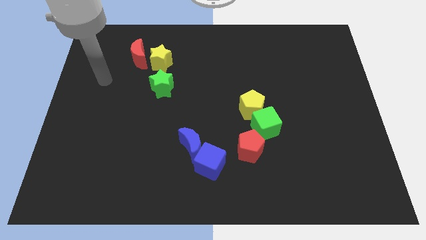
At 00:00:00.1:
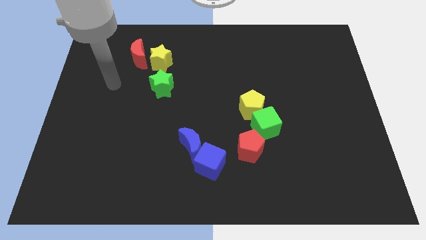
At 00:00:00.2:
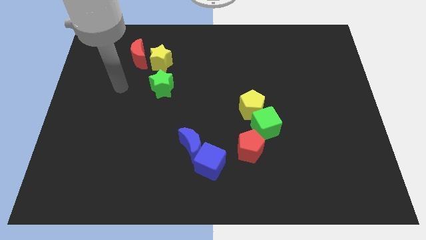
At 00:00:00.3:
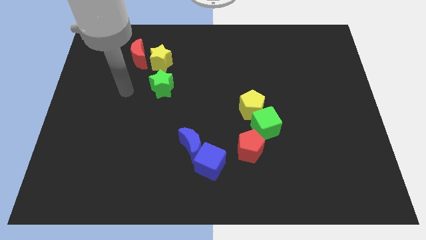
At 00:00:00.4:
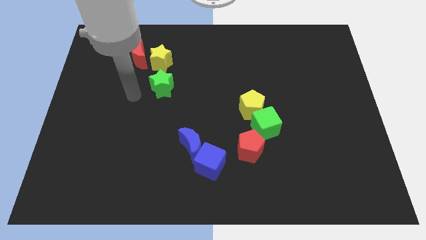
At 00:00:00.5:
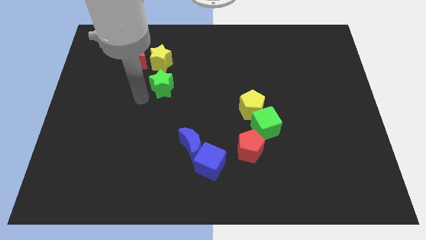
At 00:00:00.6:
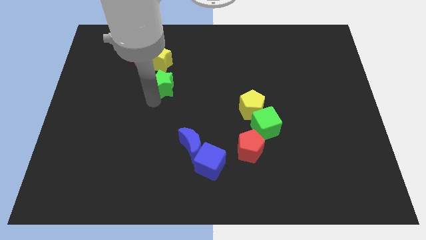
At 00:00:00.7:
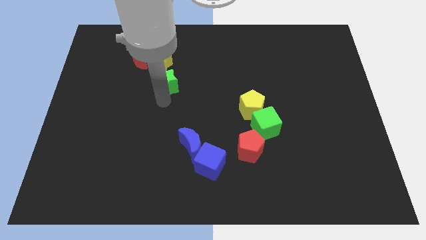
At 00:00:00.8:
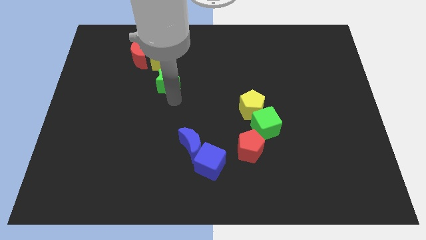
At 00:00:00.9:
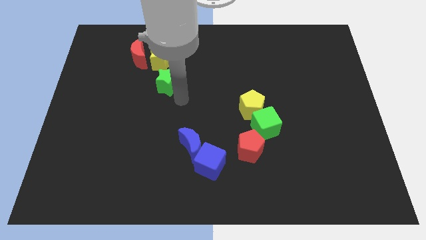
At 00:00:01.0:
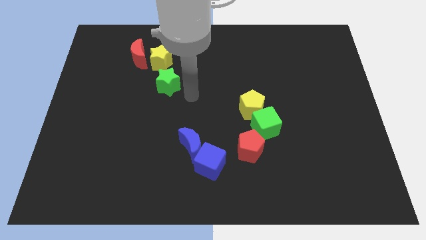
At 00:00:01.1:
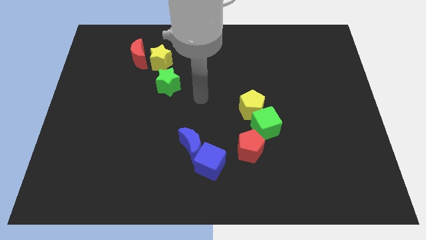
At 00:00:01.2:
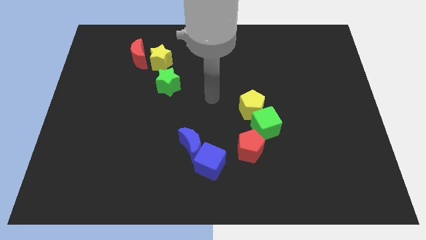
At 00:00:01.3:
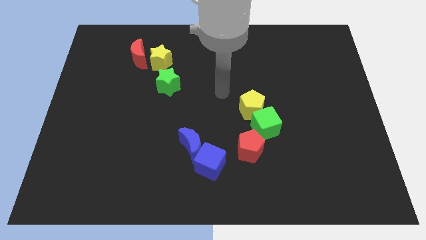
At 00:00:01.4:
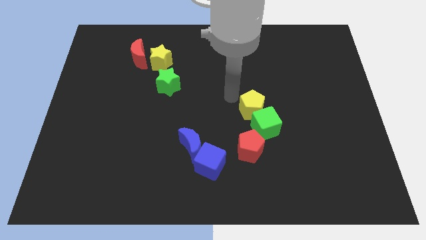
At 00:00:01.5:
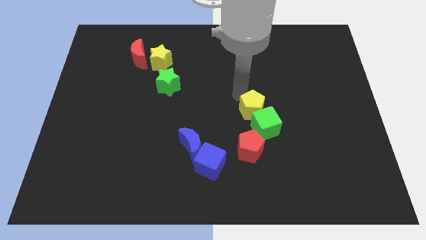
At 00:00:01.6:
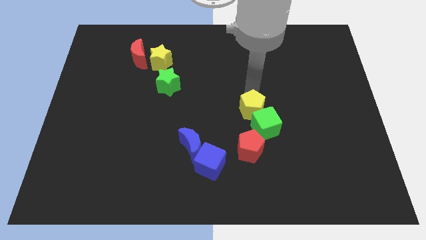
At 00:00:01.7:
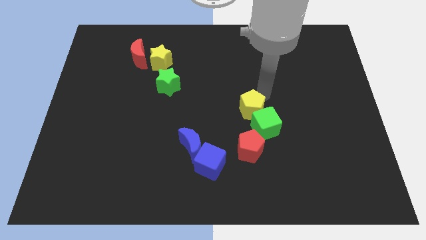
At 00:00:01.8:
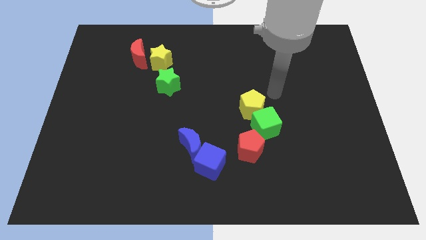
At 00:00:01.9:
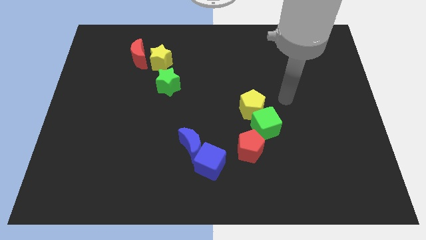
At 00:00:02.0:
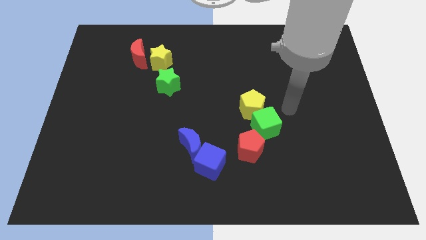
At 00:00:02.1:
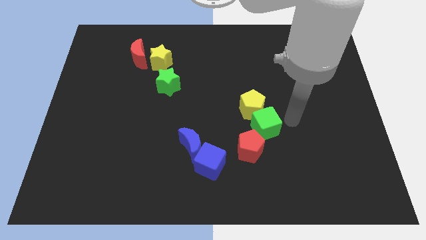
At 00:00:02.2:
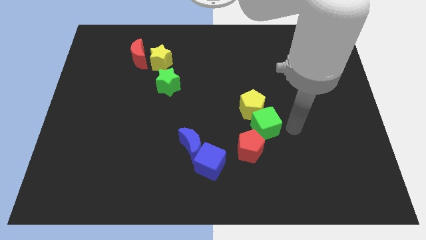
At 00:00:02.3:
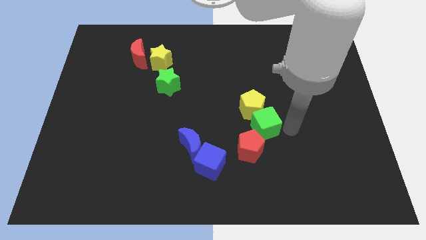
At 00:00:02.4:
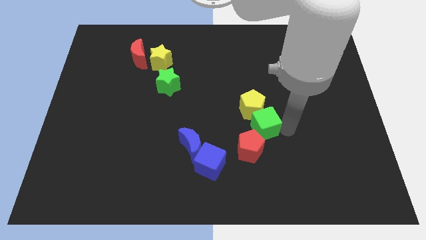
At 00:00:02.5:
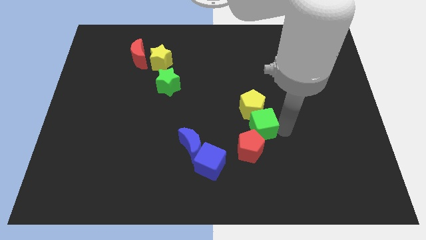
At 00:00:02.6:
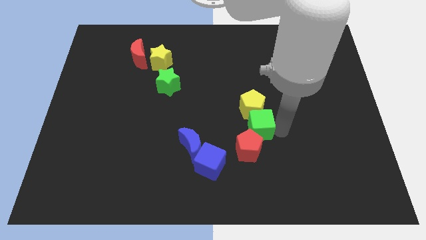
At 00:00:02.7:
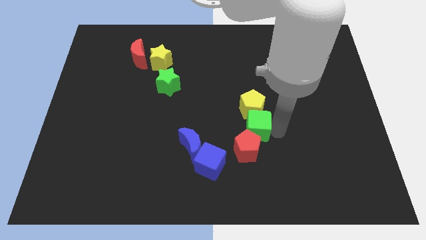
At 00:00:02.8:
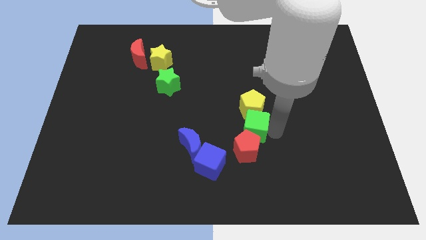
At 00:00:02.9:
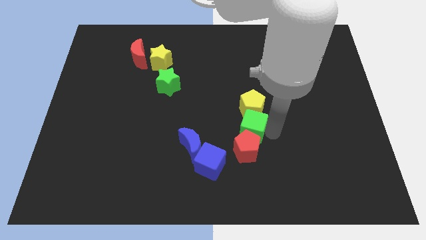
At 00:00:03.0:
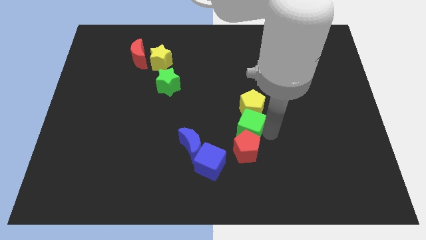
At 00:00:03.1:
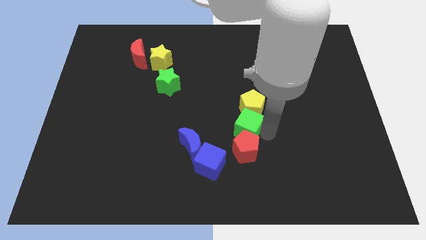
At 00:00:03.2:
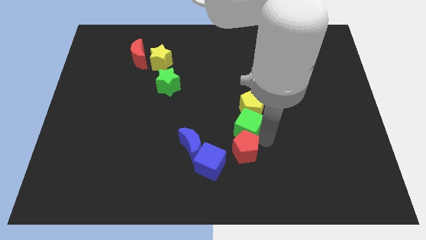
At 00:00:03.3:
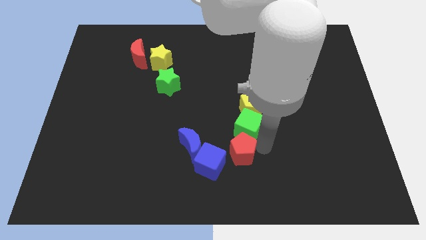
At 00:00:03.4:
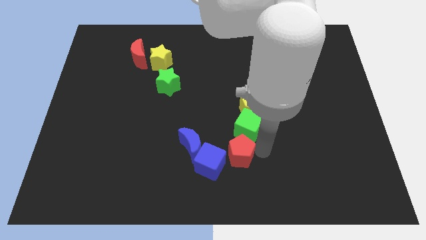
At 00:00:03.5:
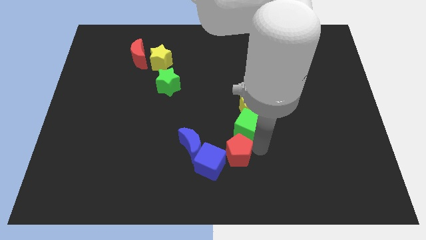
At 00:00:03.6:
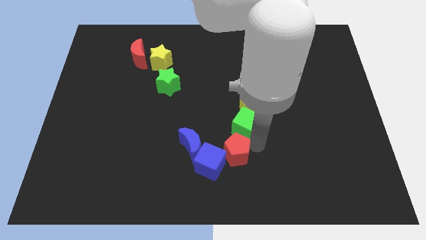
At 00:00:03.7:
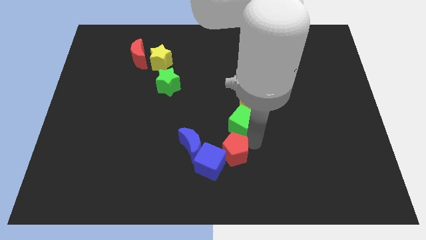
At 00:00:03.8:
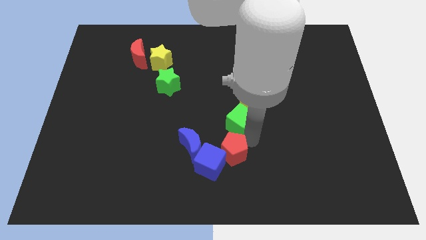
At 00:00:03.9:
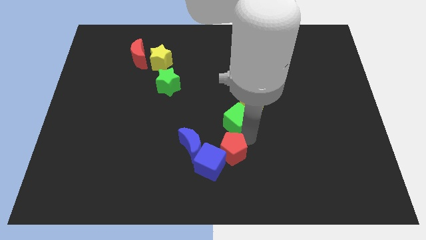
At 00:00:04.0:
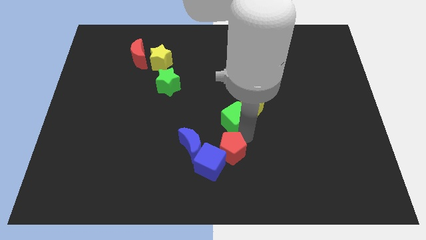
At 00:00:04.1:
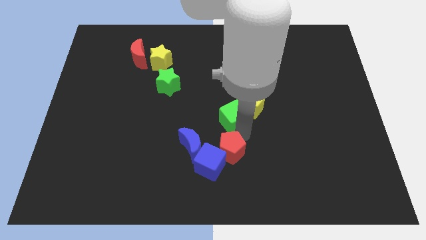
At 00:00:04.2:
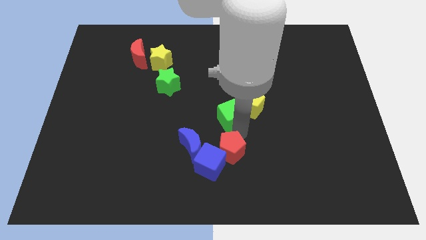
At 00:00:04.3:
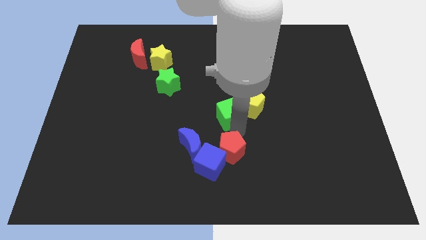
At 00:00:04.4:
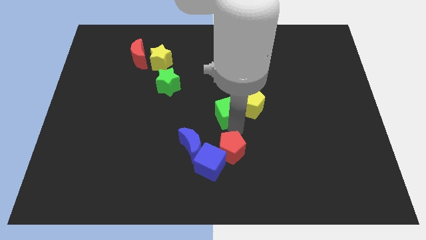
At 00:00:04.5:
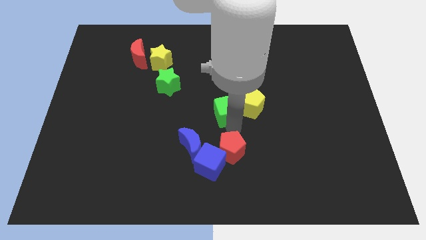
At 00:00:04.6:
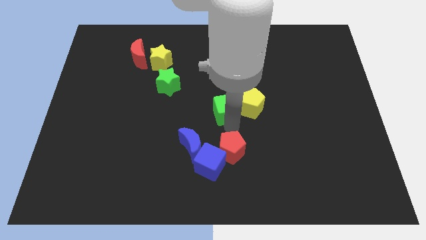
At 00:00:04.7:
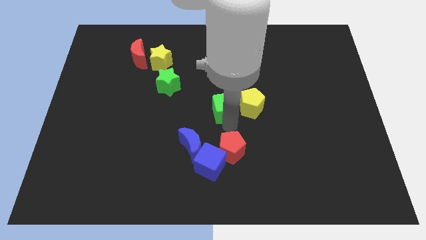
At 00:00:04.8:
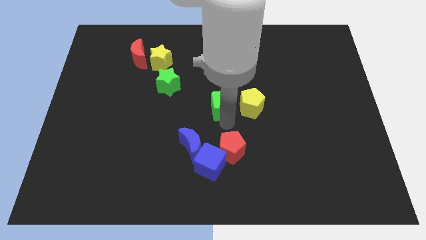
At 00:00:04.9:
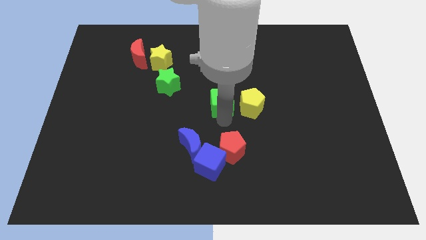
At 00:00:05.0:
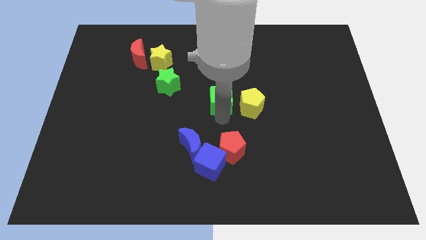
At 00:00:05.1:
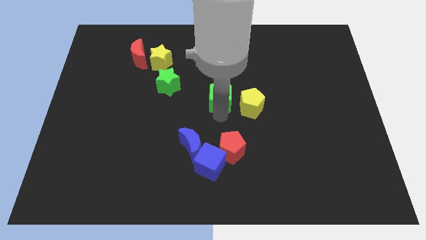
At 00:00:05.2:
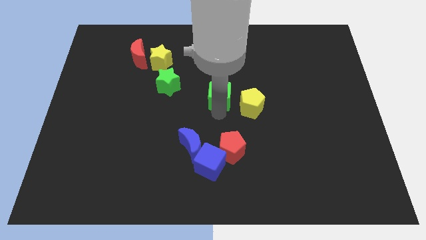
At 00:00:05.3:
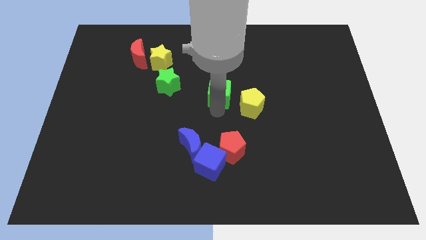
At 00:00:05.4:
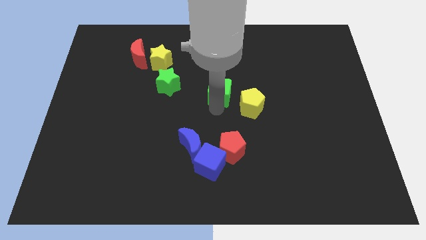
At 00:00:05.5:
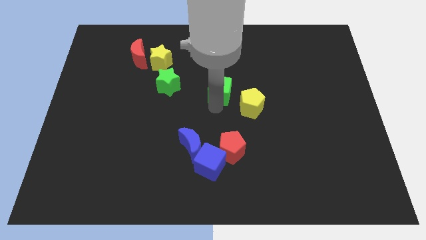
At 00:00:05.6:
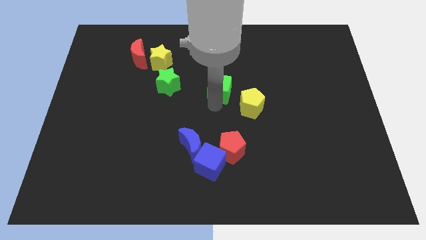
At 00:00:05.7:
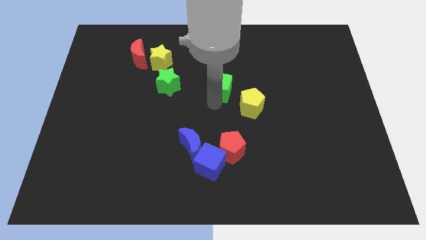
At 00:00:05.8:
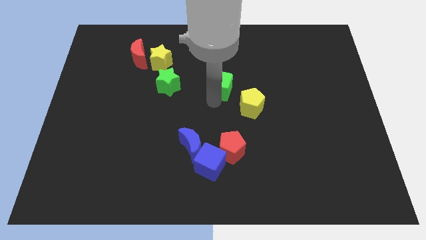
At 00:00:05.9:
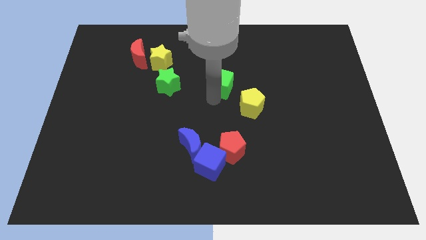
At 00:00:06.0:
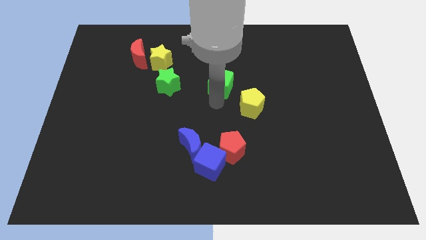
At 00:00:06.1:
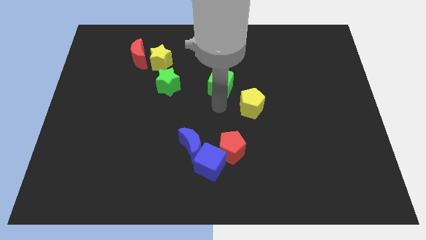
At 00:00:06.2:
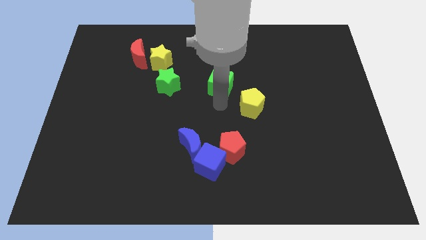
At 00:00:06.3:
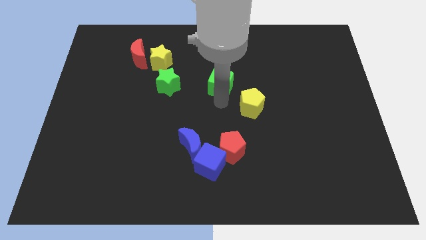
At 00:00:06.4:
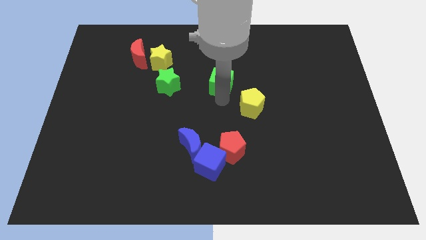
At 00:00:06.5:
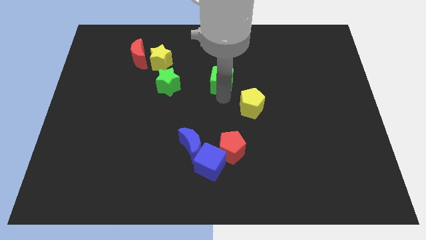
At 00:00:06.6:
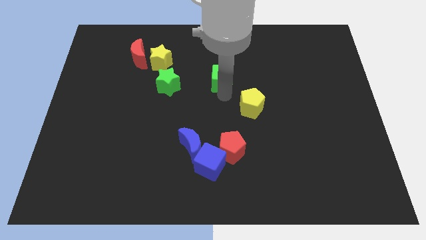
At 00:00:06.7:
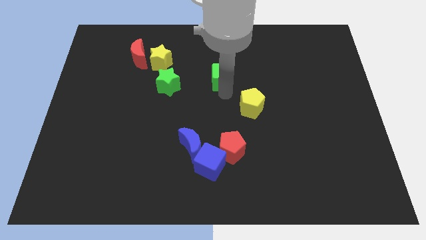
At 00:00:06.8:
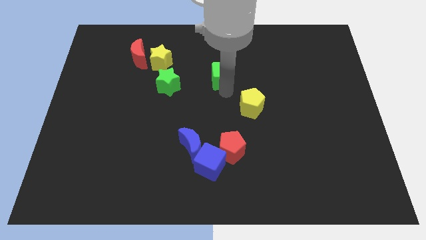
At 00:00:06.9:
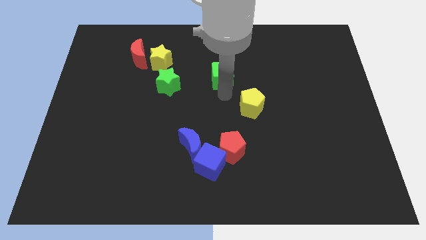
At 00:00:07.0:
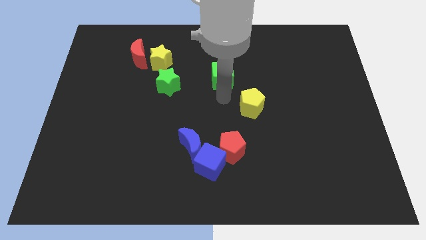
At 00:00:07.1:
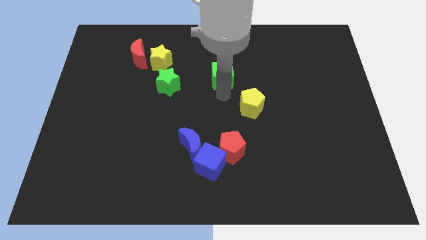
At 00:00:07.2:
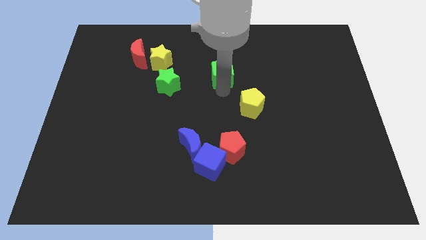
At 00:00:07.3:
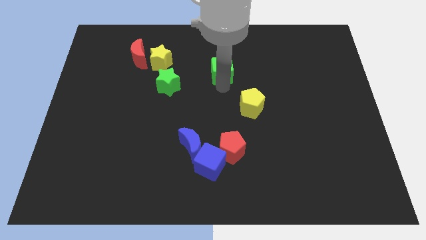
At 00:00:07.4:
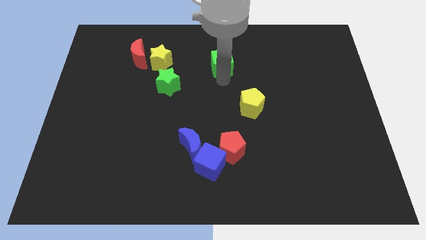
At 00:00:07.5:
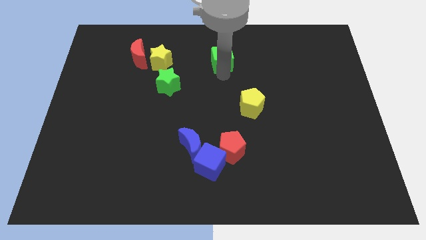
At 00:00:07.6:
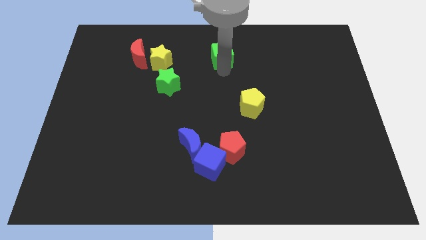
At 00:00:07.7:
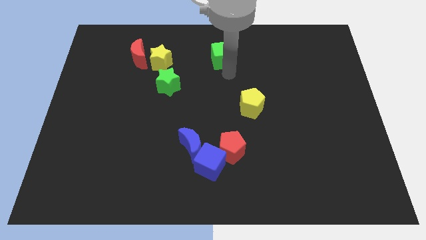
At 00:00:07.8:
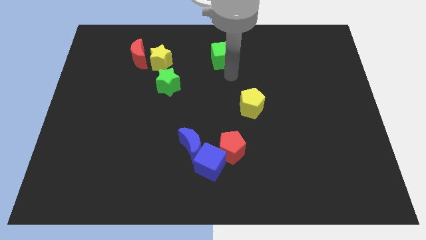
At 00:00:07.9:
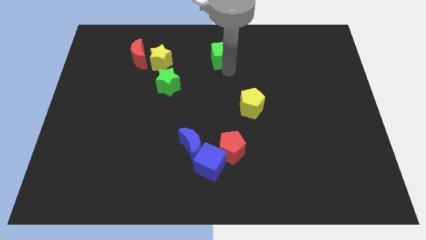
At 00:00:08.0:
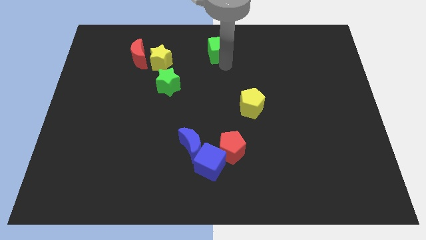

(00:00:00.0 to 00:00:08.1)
move the green cube to the top side
